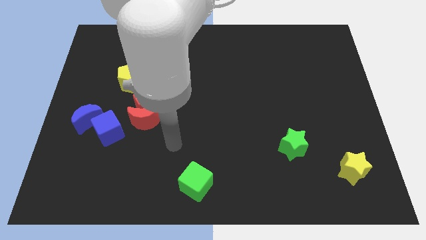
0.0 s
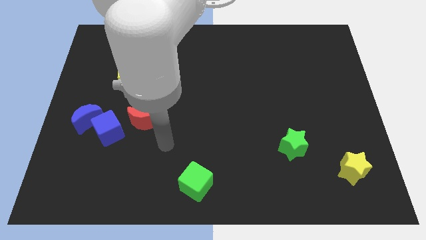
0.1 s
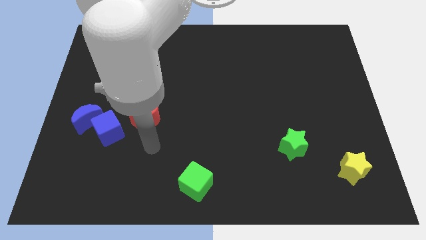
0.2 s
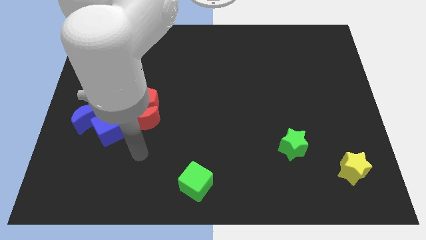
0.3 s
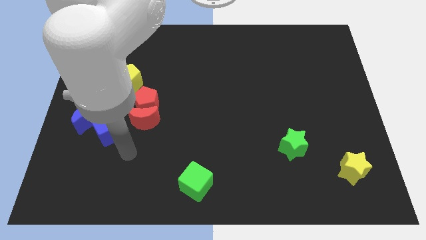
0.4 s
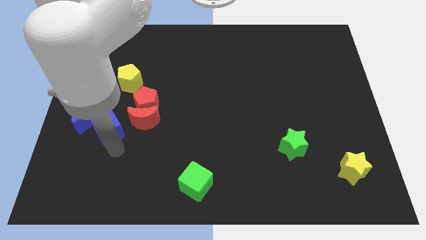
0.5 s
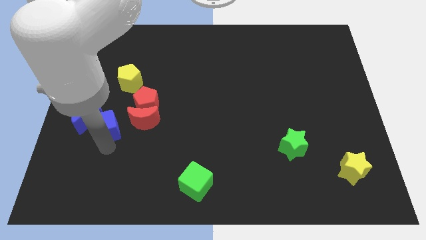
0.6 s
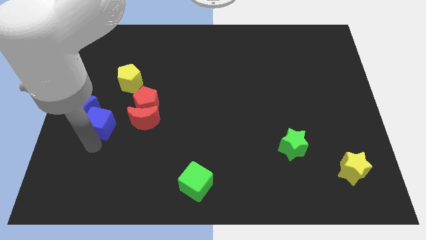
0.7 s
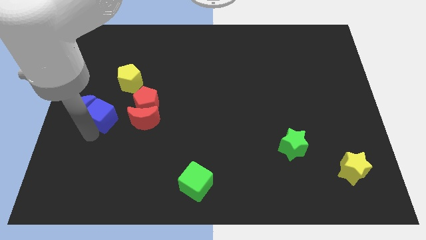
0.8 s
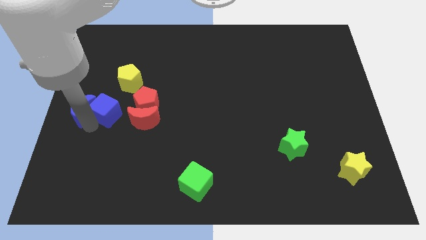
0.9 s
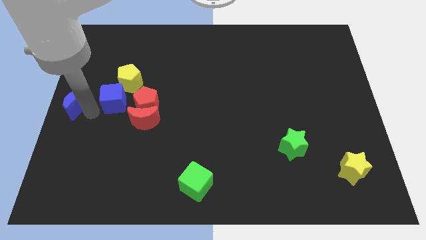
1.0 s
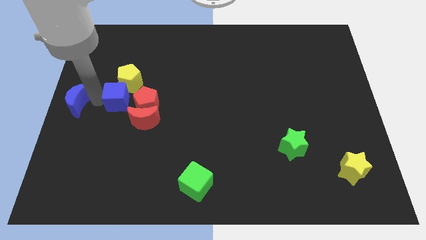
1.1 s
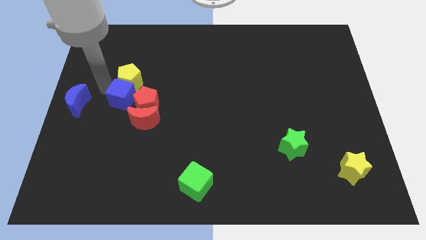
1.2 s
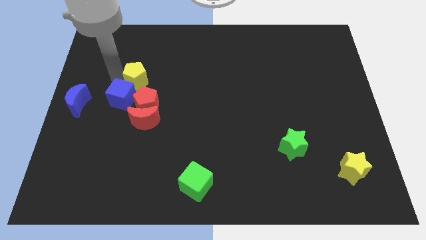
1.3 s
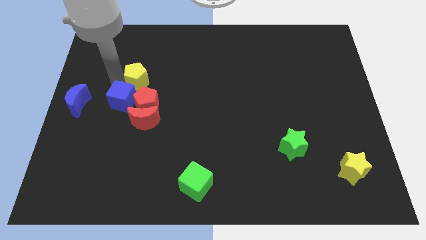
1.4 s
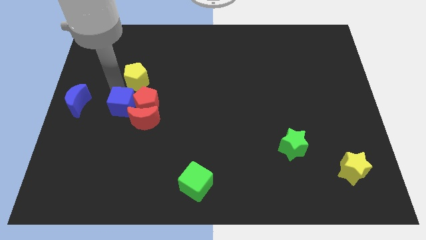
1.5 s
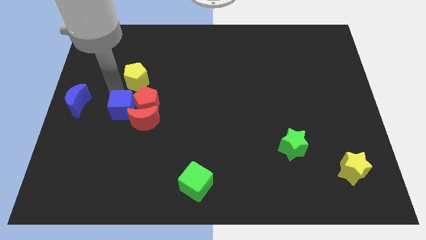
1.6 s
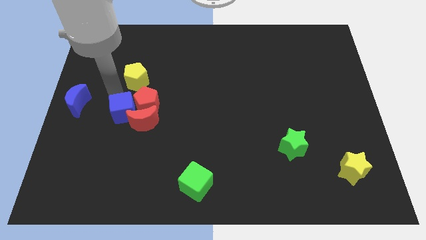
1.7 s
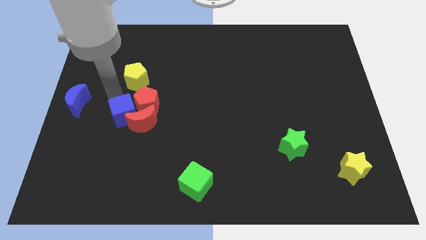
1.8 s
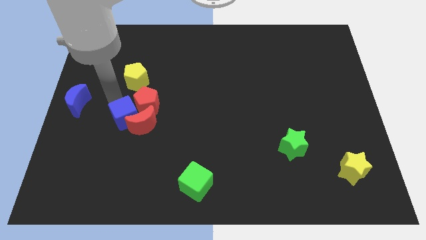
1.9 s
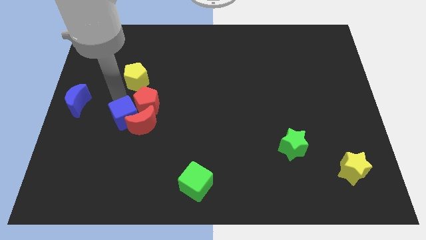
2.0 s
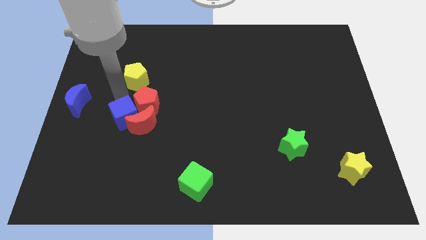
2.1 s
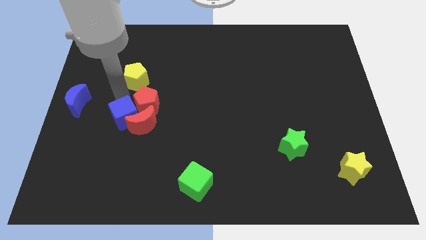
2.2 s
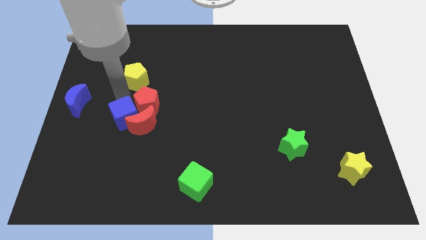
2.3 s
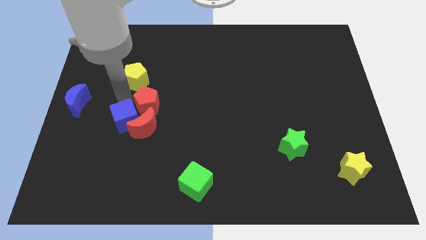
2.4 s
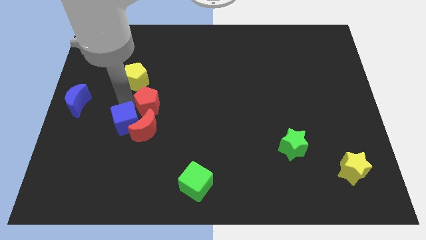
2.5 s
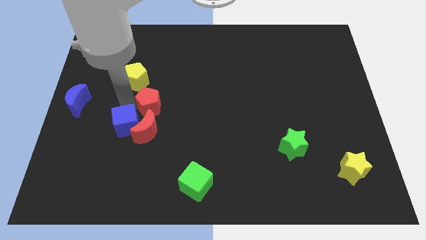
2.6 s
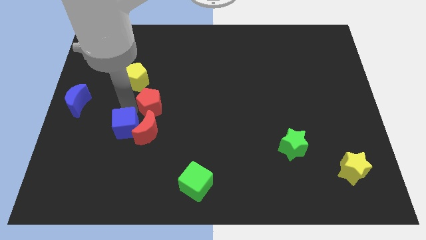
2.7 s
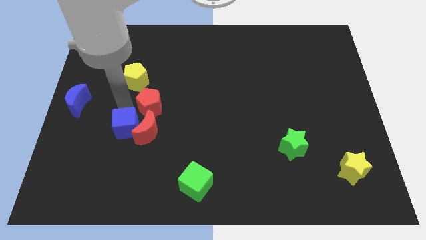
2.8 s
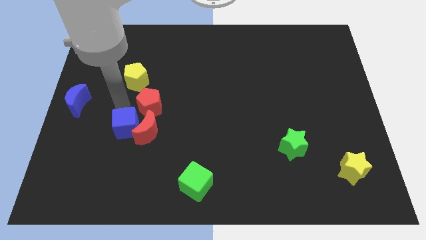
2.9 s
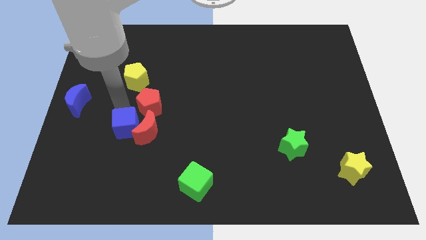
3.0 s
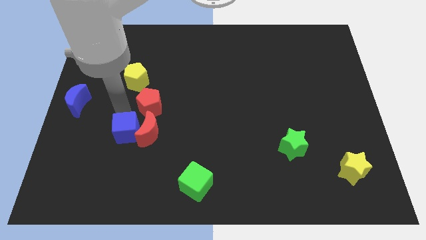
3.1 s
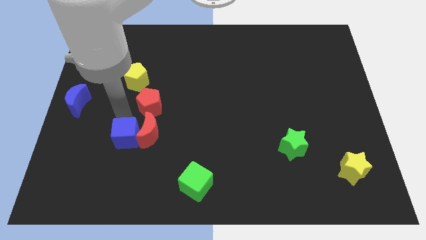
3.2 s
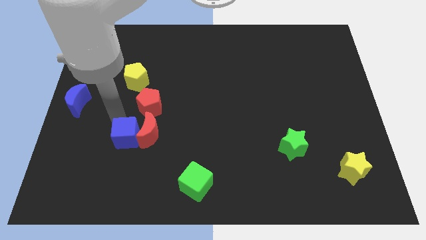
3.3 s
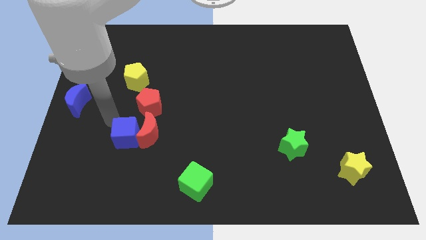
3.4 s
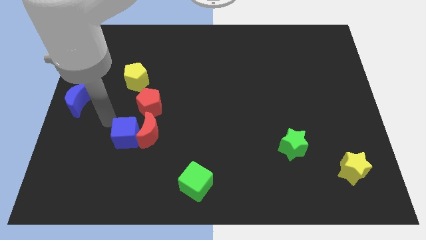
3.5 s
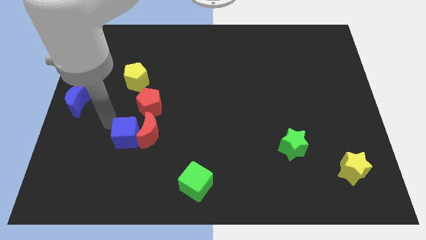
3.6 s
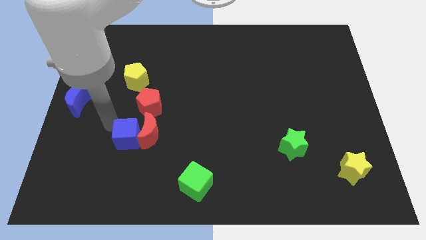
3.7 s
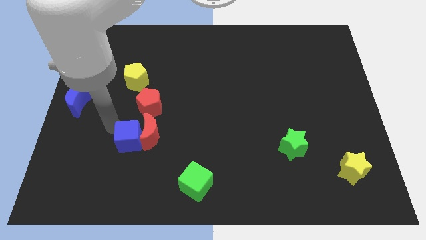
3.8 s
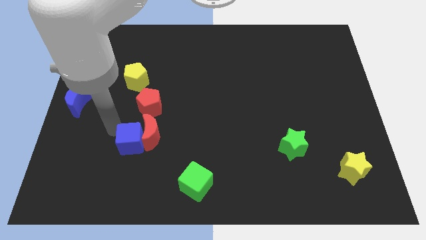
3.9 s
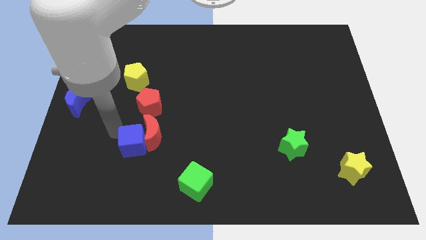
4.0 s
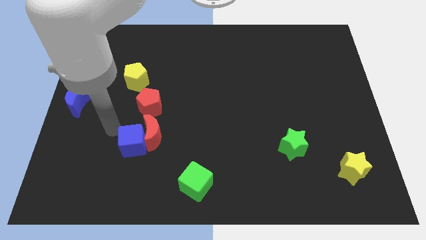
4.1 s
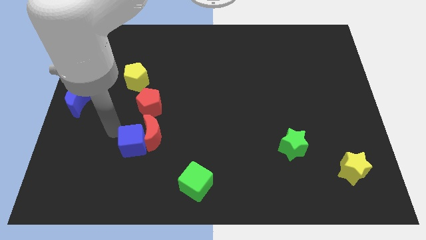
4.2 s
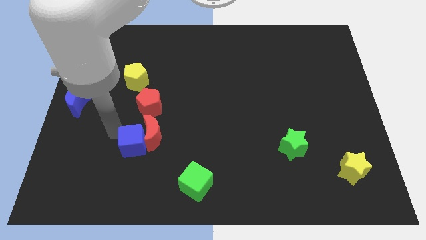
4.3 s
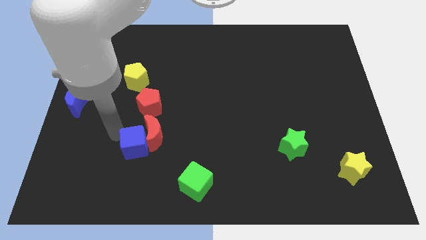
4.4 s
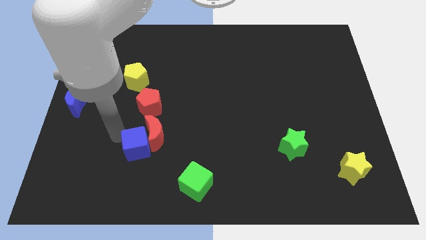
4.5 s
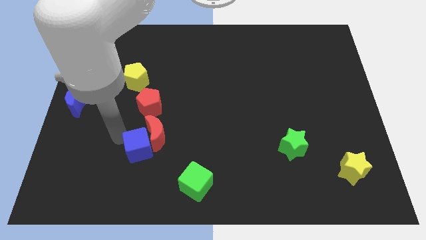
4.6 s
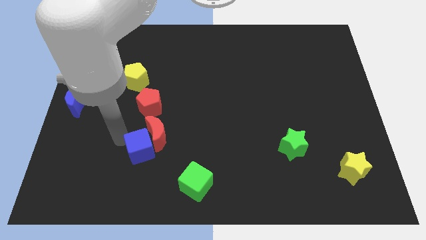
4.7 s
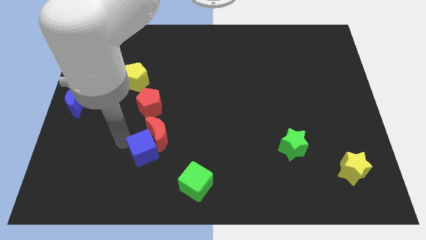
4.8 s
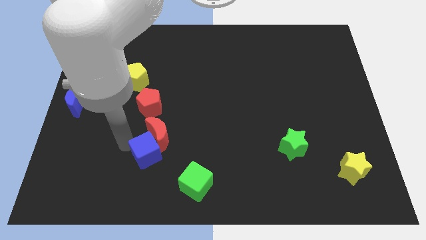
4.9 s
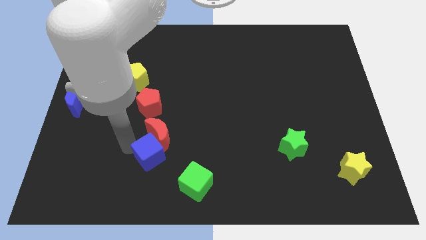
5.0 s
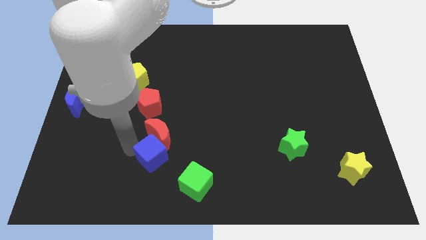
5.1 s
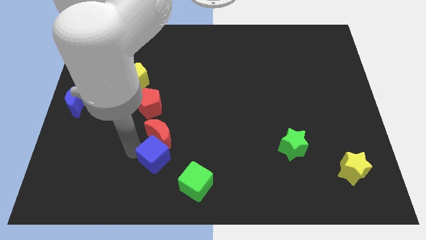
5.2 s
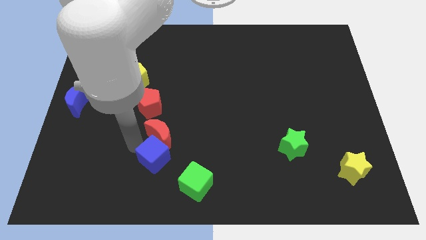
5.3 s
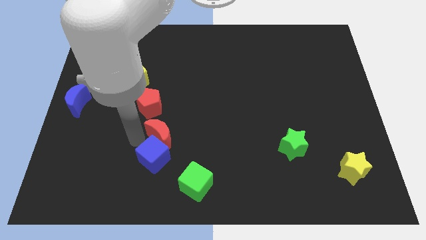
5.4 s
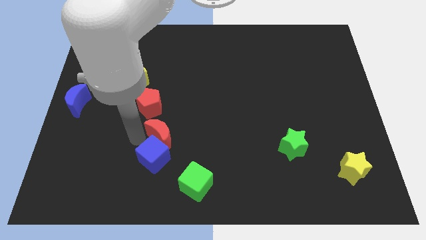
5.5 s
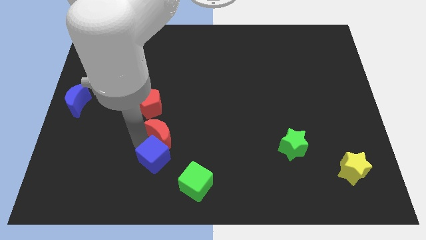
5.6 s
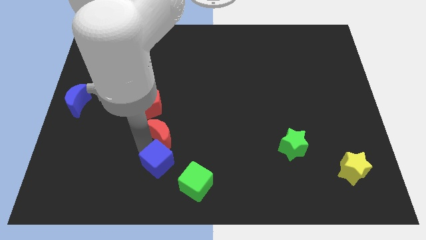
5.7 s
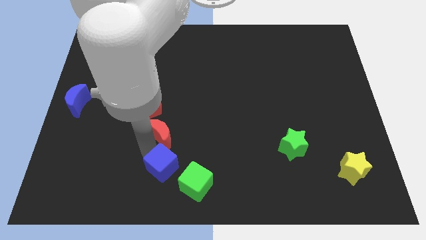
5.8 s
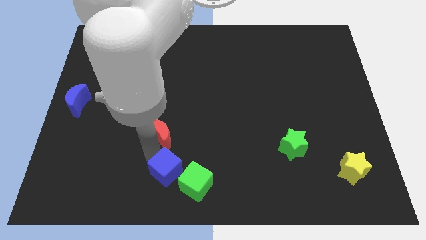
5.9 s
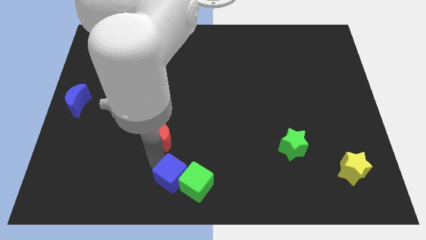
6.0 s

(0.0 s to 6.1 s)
slide the blue cube towards the green cube

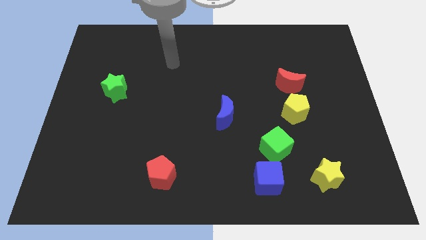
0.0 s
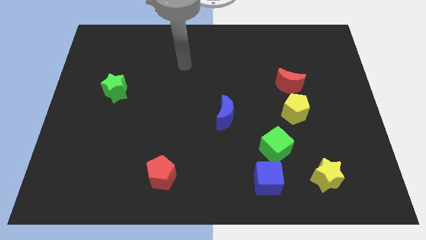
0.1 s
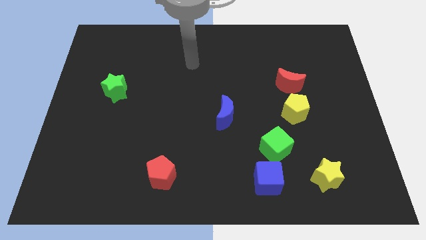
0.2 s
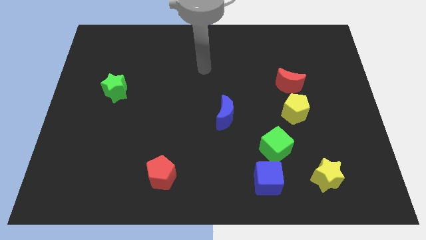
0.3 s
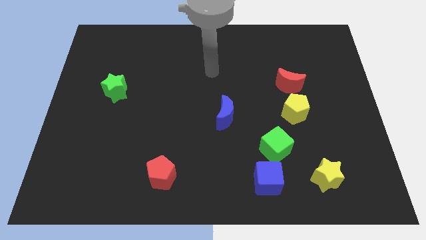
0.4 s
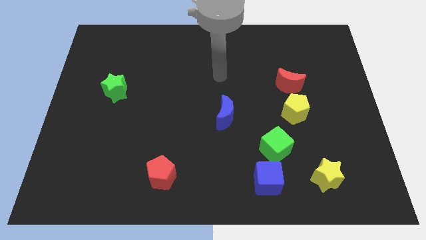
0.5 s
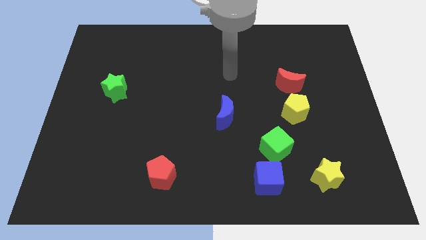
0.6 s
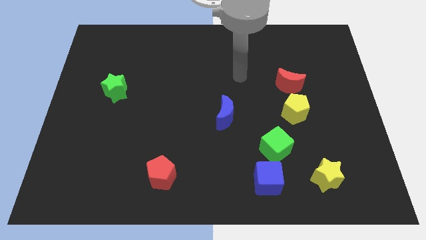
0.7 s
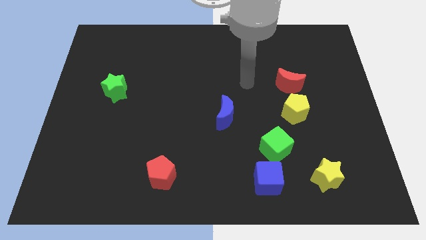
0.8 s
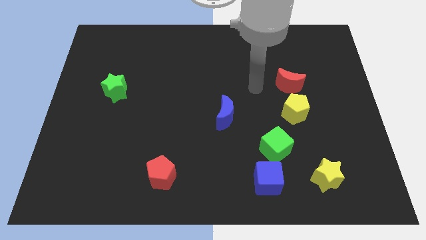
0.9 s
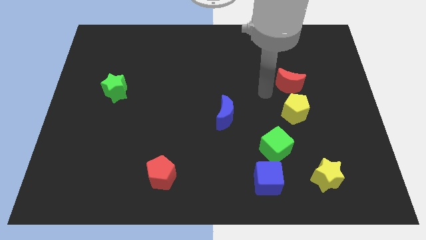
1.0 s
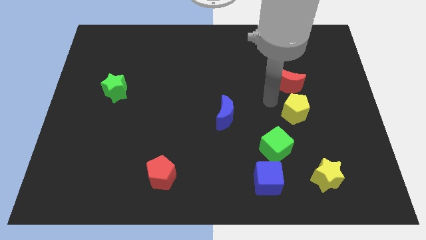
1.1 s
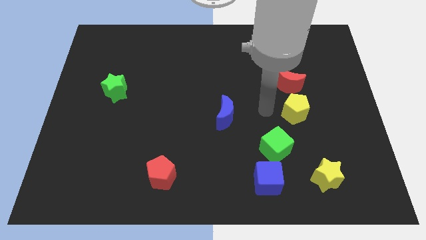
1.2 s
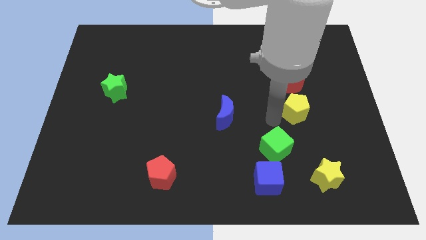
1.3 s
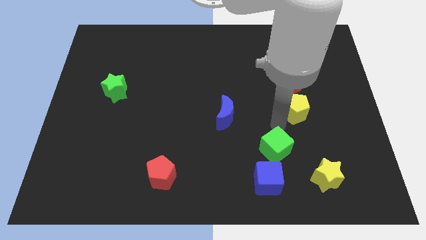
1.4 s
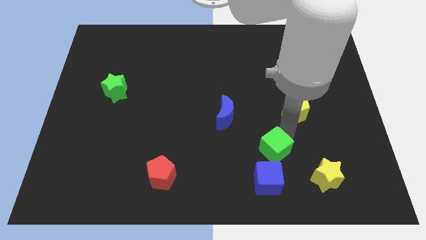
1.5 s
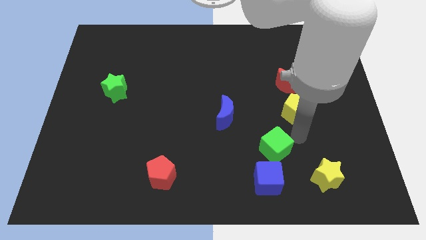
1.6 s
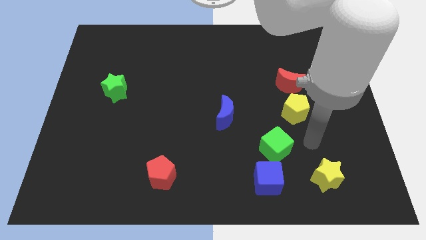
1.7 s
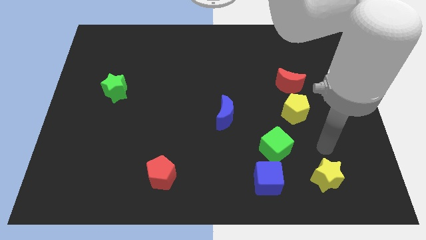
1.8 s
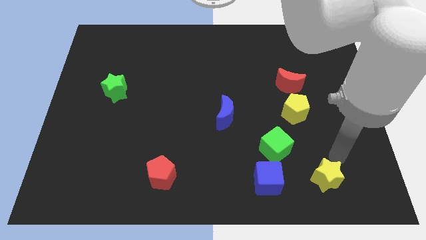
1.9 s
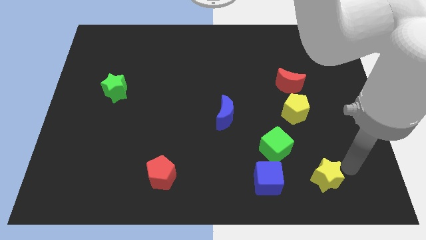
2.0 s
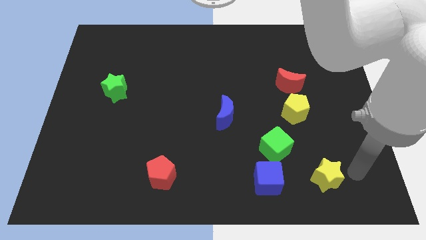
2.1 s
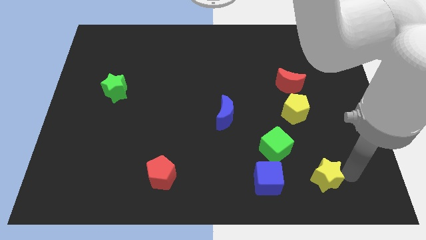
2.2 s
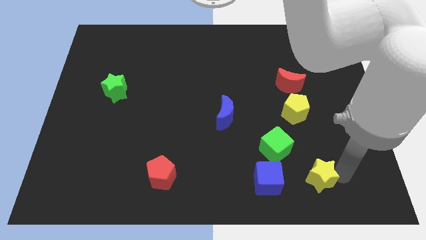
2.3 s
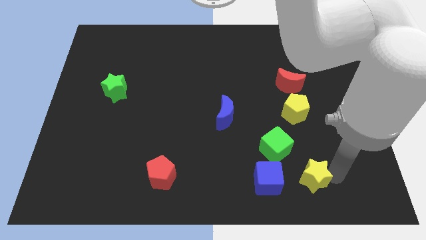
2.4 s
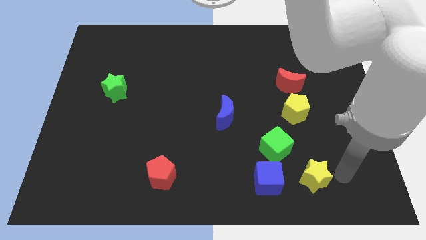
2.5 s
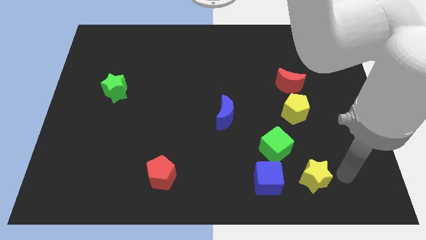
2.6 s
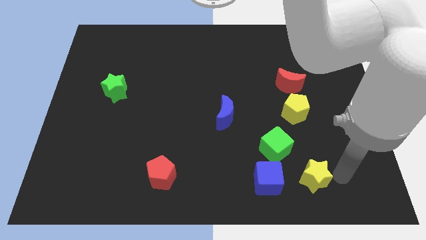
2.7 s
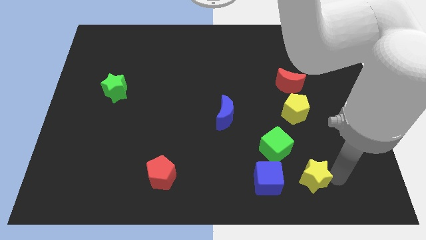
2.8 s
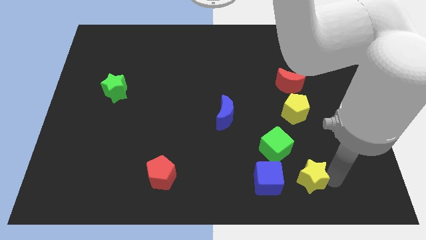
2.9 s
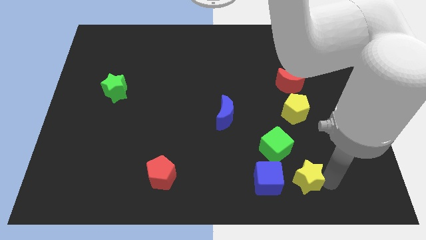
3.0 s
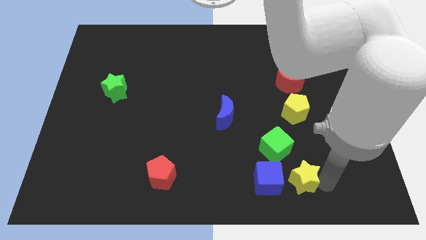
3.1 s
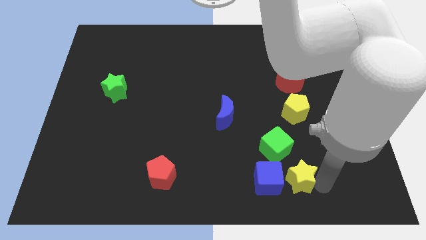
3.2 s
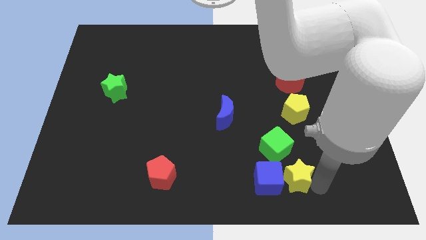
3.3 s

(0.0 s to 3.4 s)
move the yellow star to the blue cube
